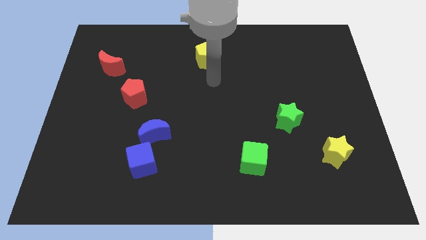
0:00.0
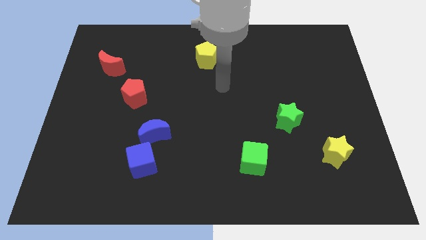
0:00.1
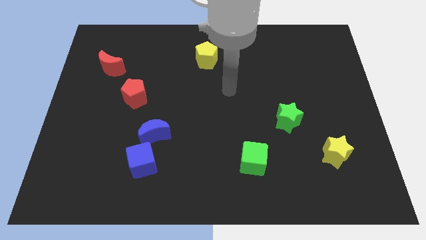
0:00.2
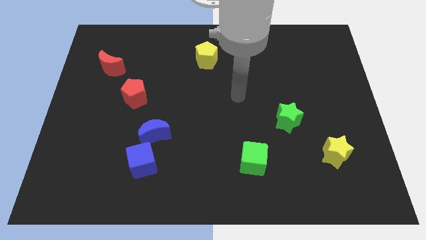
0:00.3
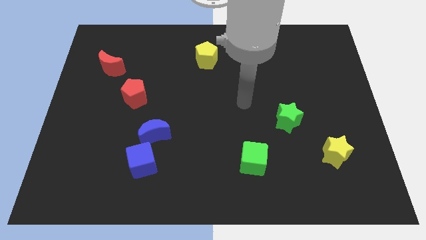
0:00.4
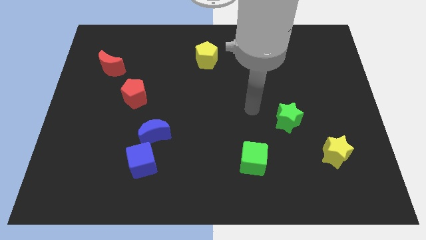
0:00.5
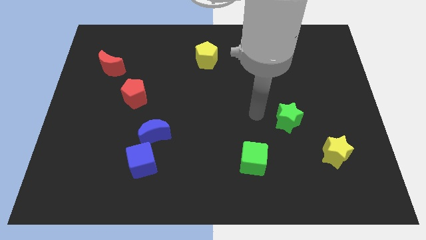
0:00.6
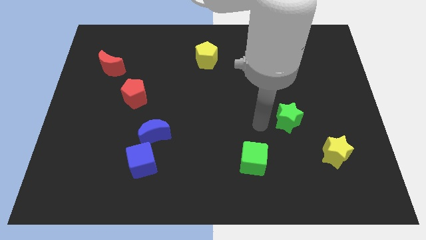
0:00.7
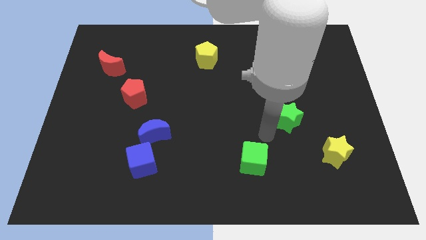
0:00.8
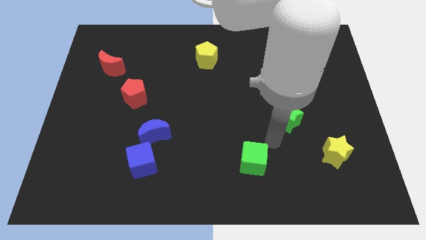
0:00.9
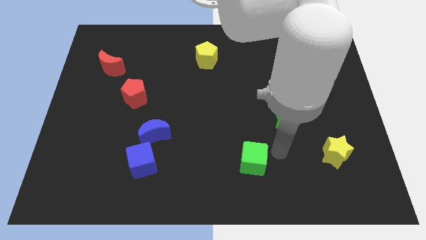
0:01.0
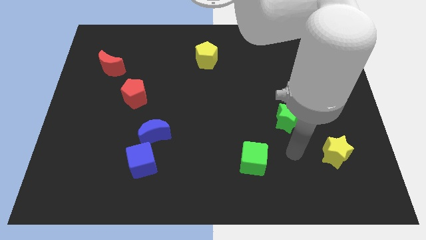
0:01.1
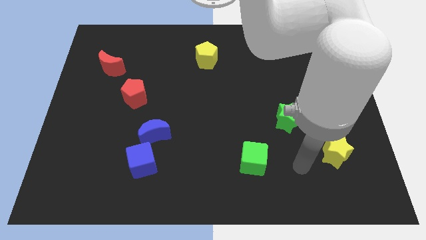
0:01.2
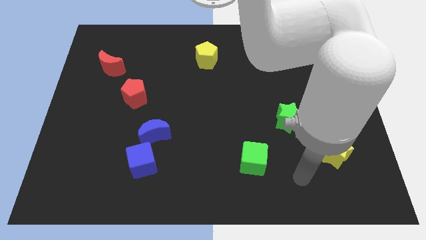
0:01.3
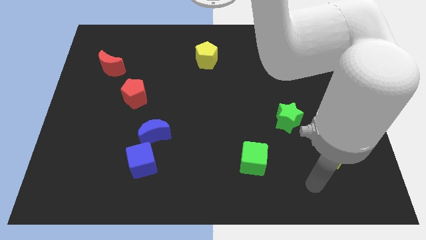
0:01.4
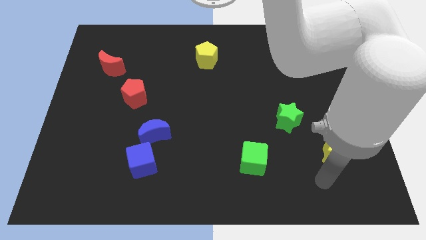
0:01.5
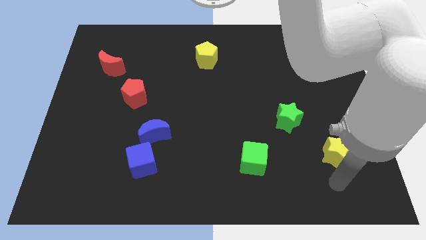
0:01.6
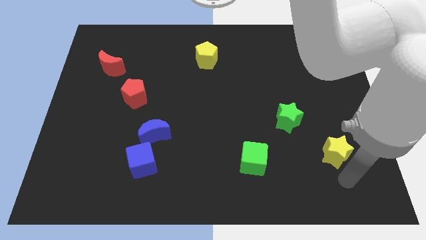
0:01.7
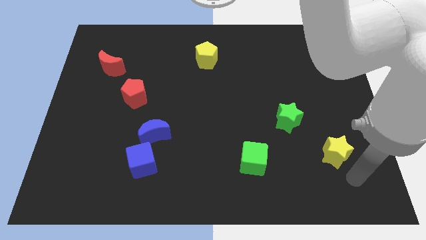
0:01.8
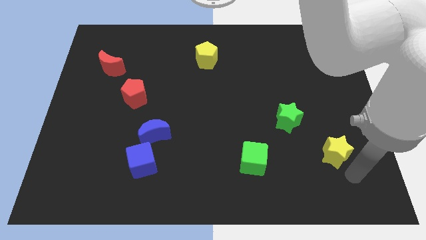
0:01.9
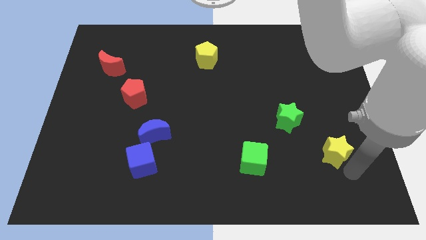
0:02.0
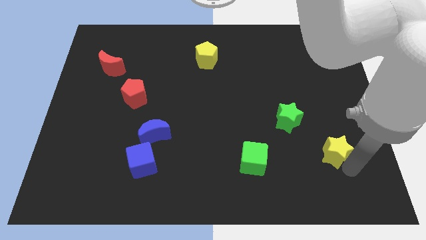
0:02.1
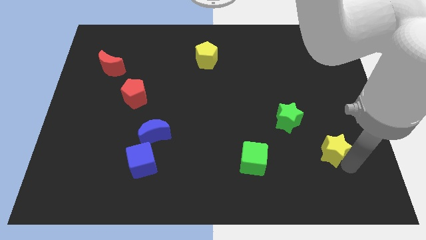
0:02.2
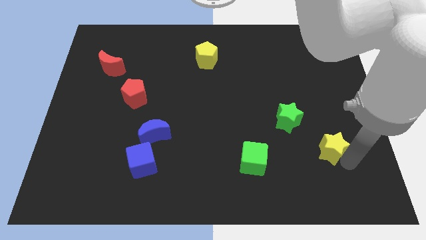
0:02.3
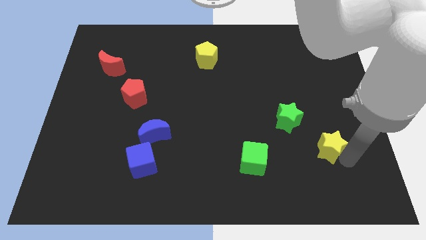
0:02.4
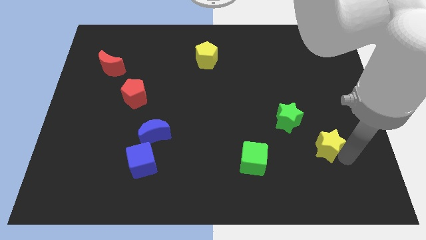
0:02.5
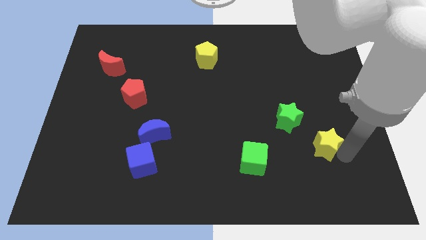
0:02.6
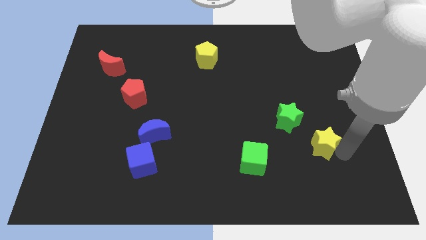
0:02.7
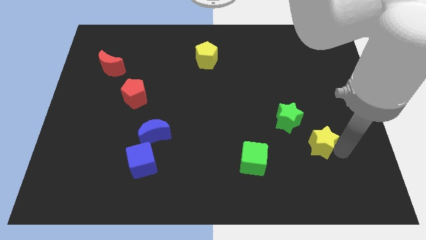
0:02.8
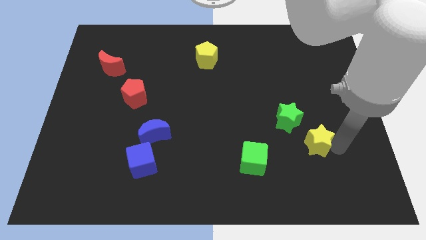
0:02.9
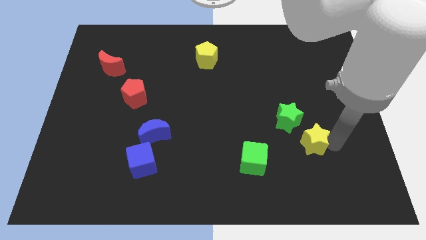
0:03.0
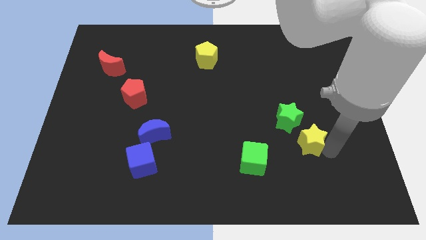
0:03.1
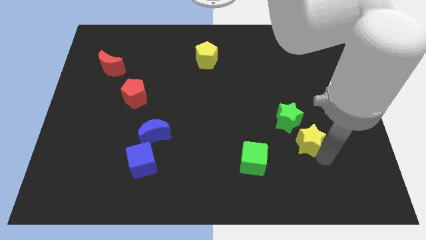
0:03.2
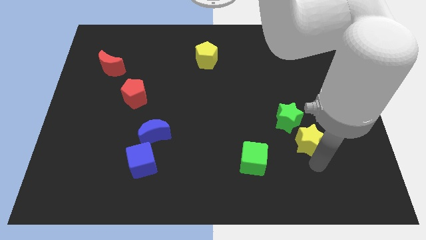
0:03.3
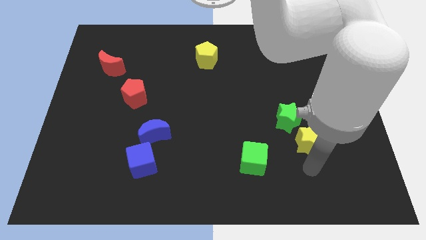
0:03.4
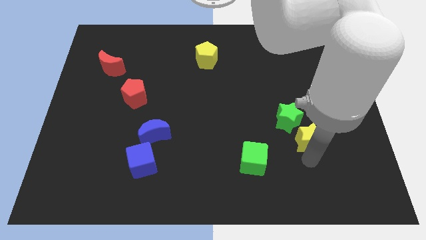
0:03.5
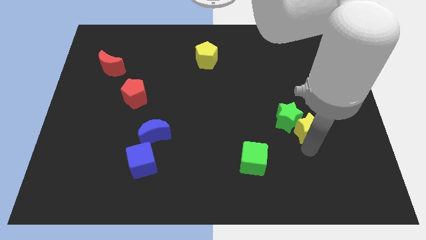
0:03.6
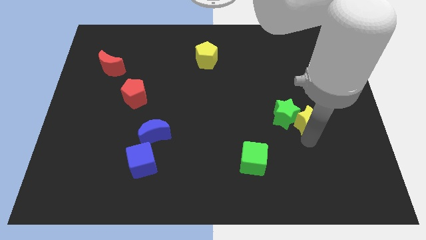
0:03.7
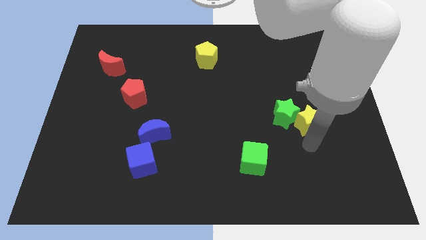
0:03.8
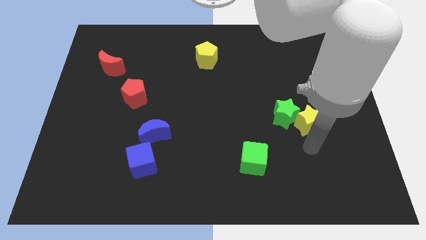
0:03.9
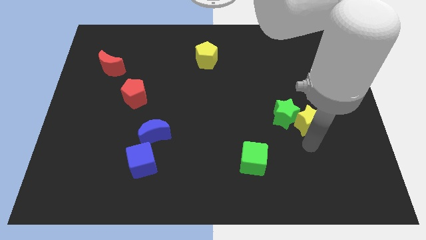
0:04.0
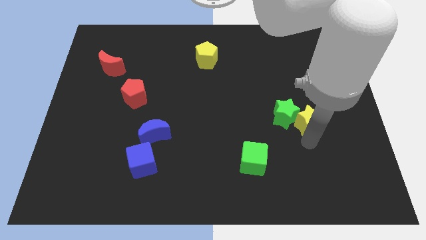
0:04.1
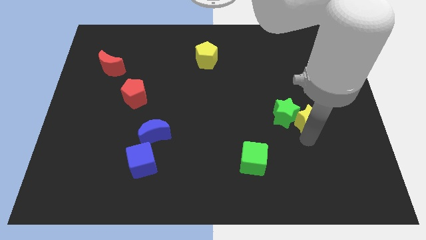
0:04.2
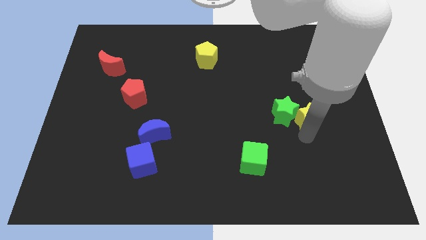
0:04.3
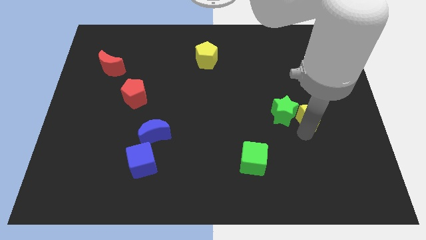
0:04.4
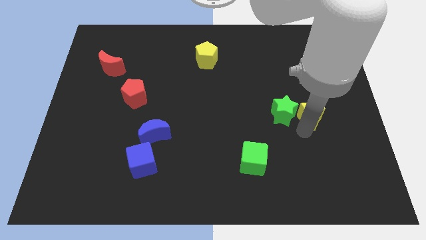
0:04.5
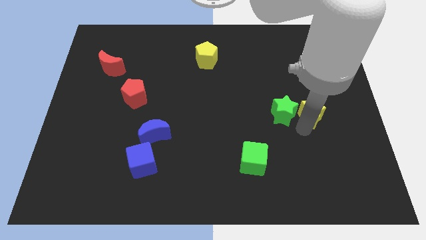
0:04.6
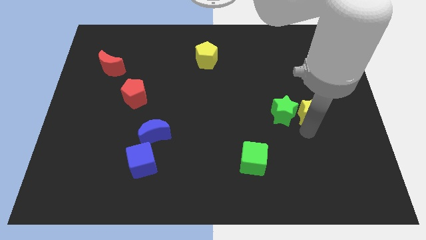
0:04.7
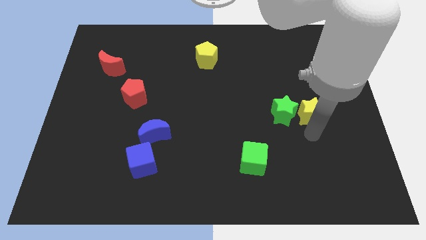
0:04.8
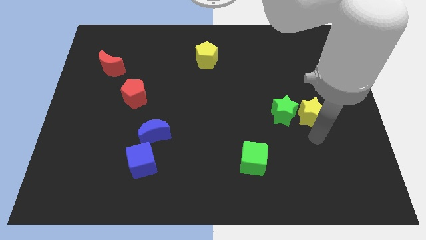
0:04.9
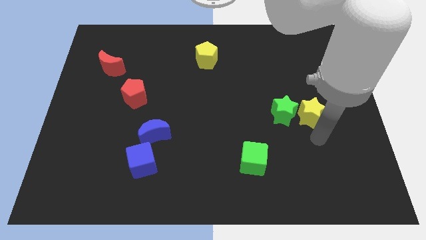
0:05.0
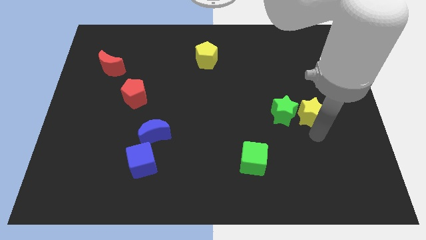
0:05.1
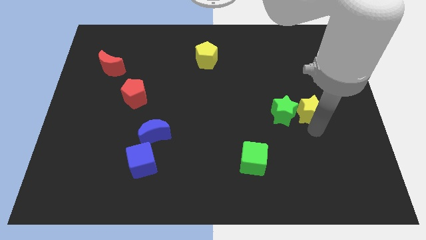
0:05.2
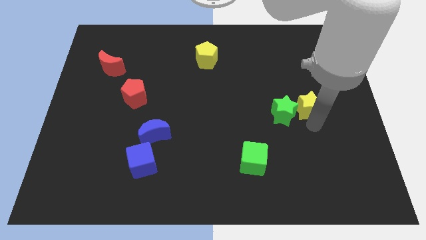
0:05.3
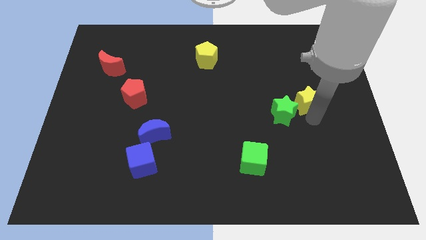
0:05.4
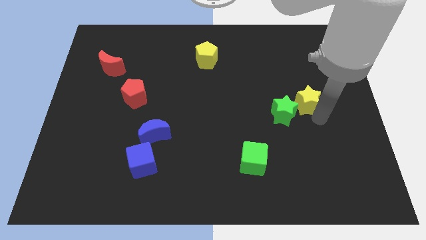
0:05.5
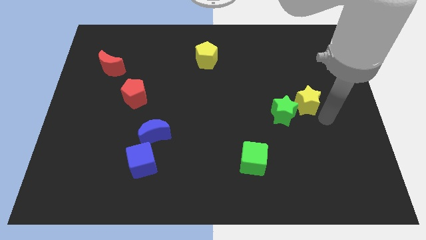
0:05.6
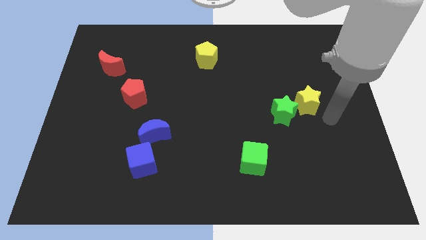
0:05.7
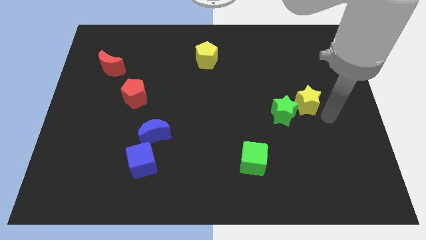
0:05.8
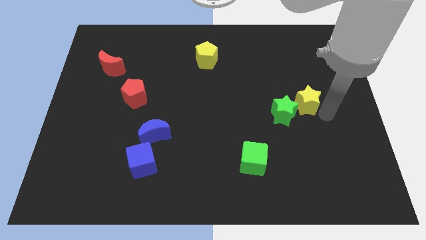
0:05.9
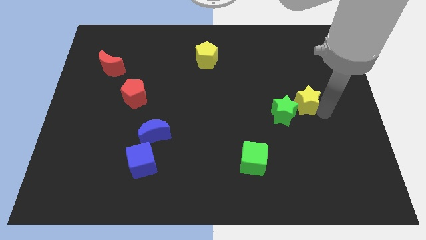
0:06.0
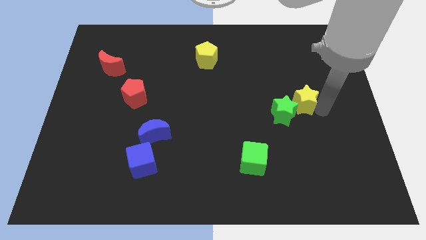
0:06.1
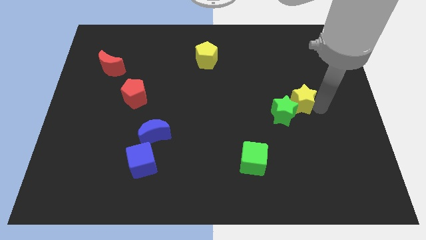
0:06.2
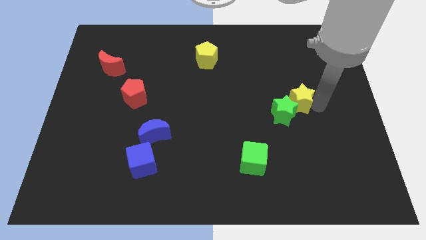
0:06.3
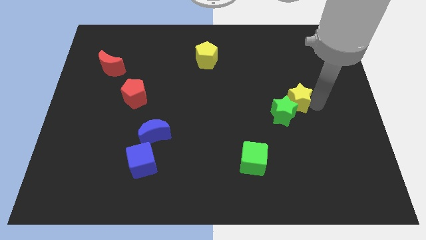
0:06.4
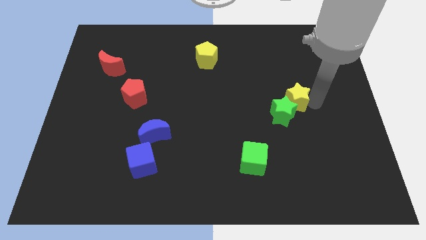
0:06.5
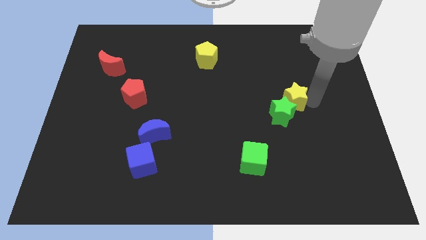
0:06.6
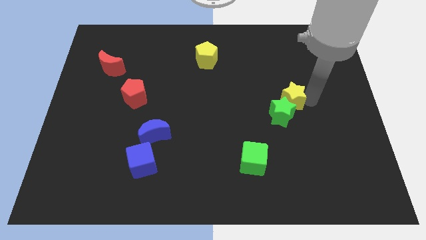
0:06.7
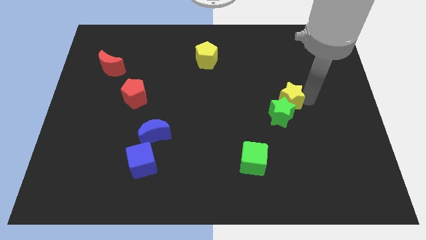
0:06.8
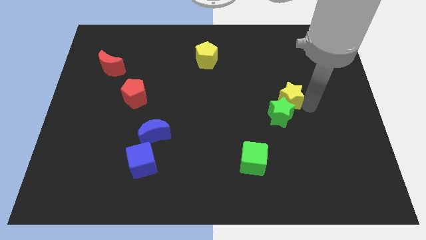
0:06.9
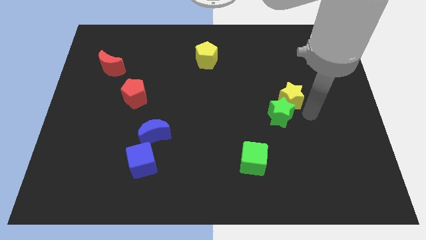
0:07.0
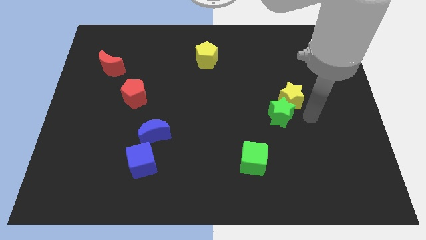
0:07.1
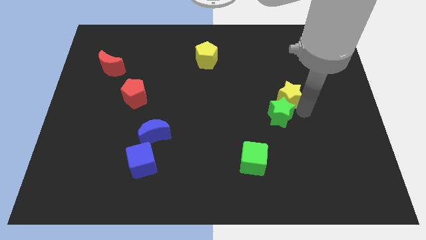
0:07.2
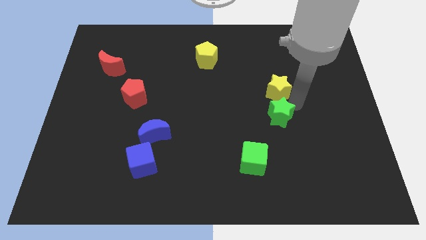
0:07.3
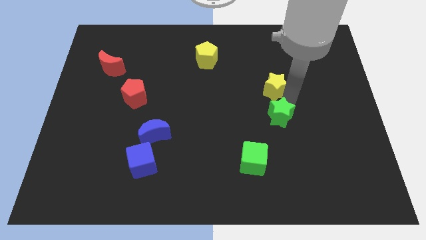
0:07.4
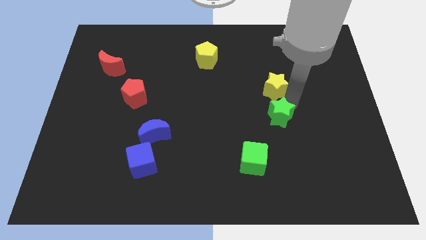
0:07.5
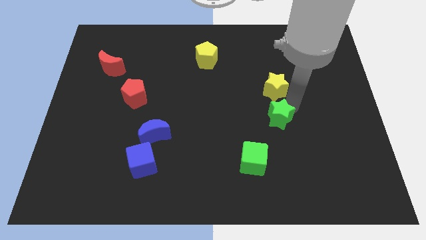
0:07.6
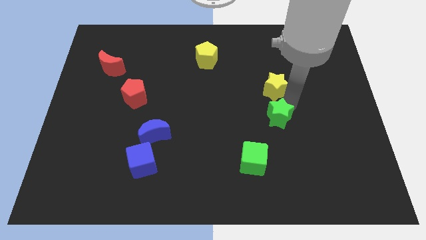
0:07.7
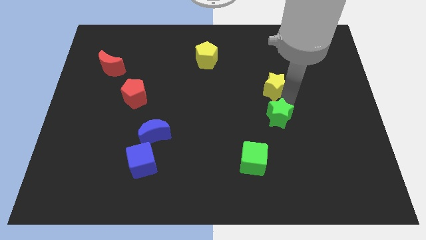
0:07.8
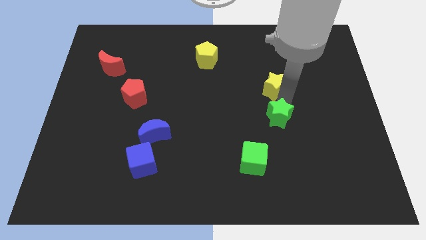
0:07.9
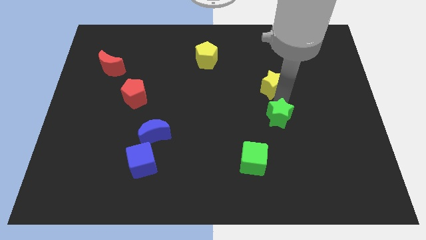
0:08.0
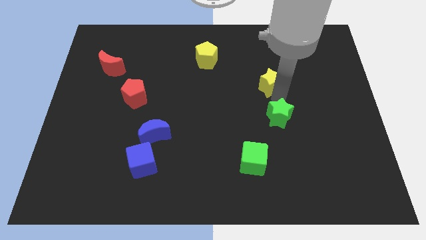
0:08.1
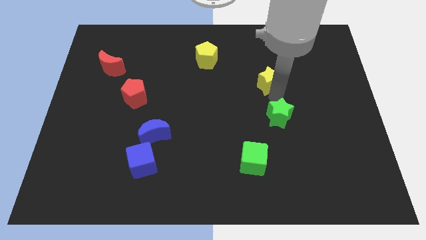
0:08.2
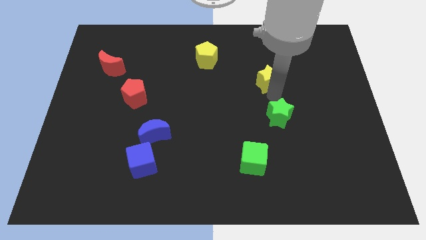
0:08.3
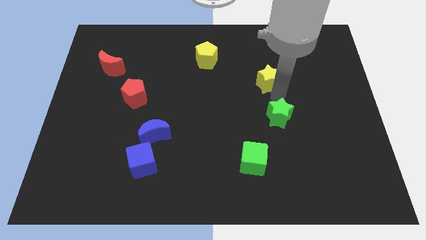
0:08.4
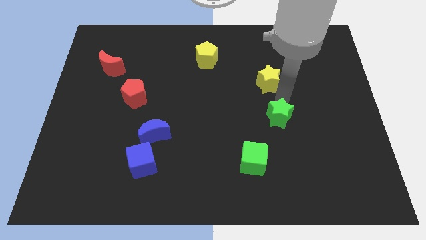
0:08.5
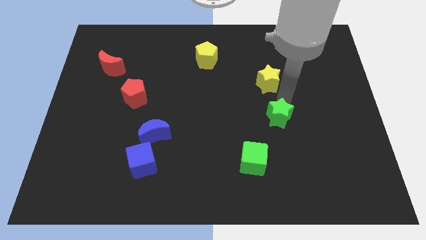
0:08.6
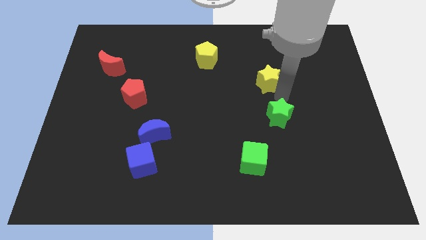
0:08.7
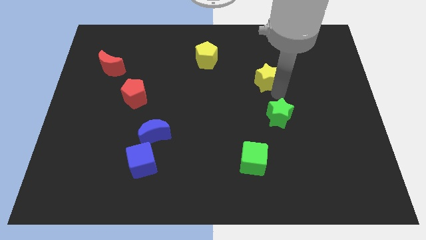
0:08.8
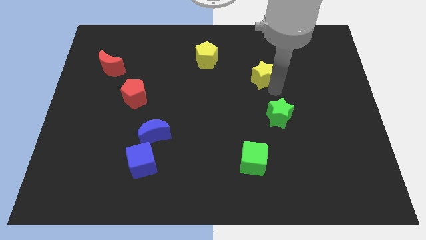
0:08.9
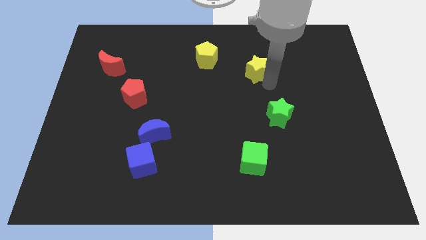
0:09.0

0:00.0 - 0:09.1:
slide the yellow star right of the yellow pentagon
